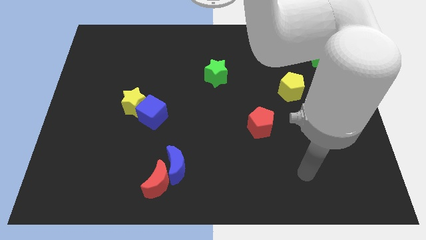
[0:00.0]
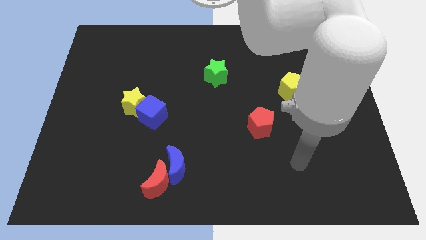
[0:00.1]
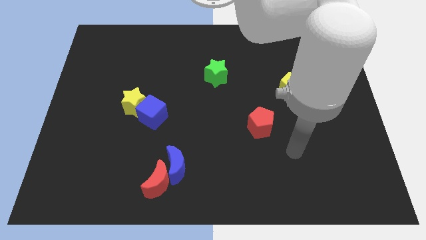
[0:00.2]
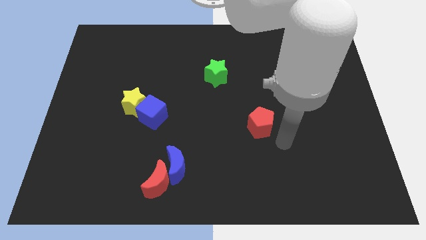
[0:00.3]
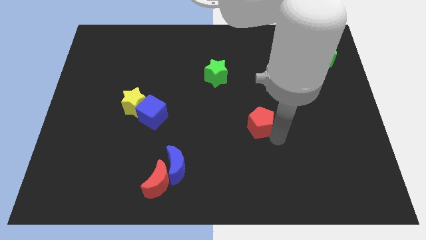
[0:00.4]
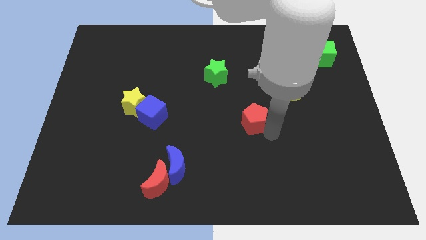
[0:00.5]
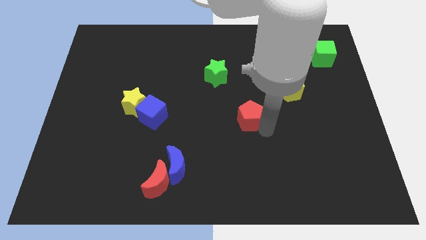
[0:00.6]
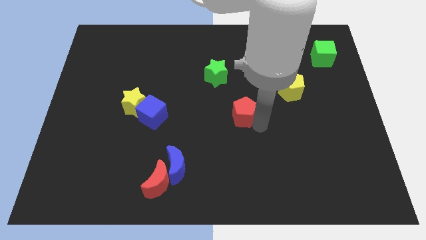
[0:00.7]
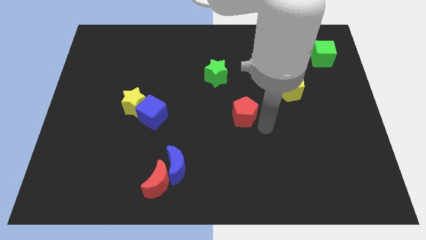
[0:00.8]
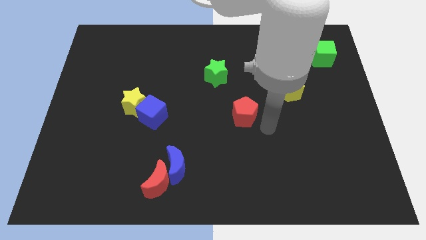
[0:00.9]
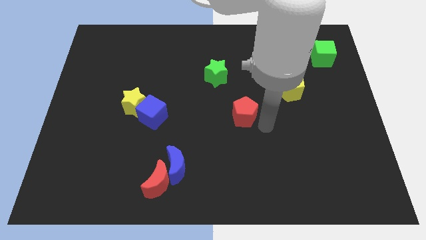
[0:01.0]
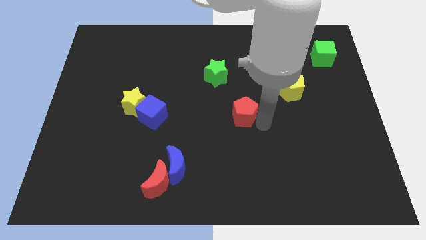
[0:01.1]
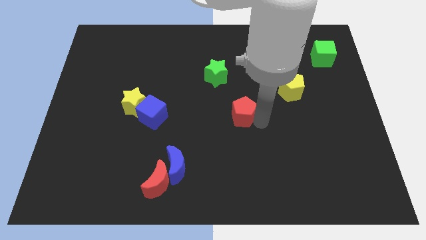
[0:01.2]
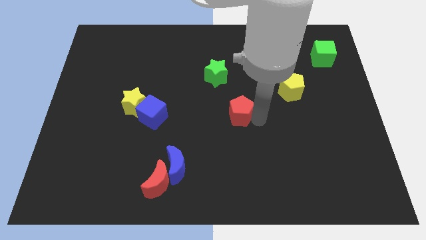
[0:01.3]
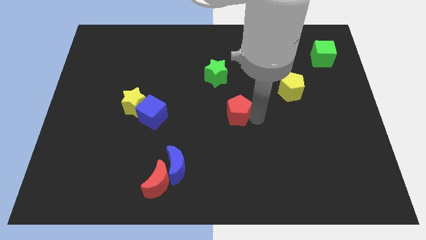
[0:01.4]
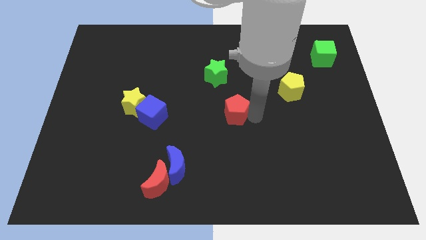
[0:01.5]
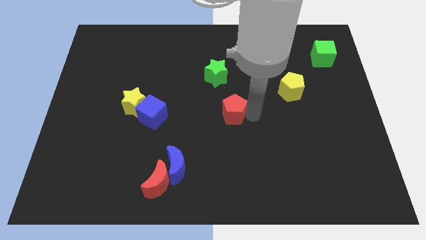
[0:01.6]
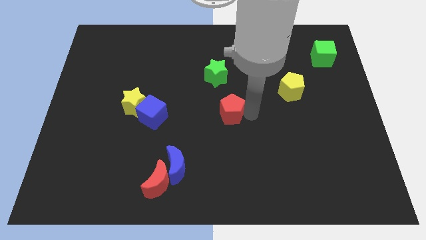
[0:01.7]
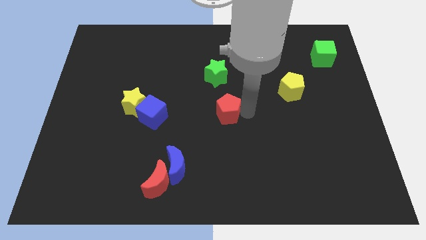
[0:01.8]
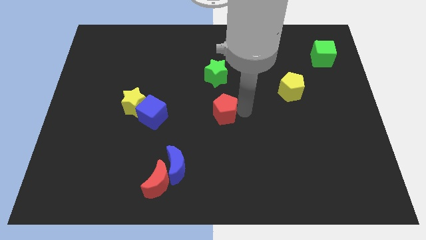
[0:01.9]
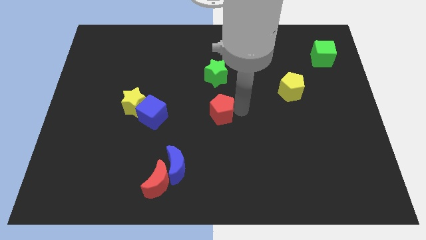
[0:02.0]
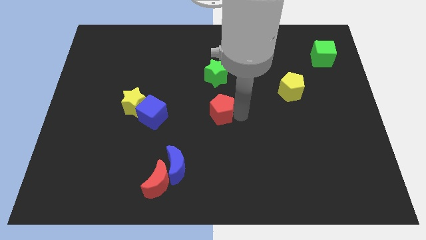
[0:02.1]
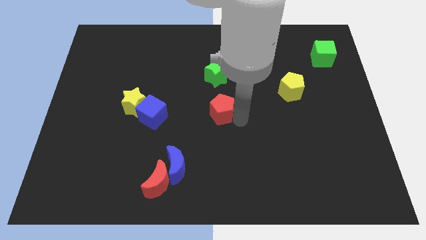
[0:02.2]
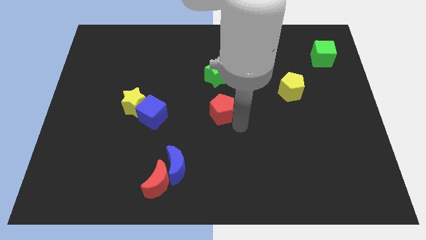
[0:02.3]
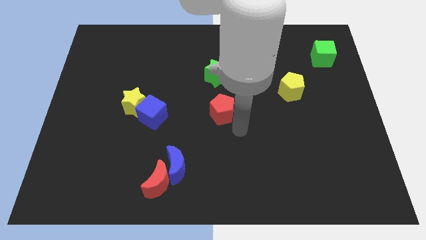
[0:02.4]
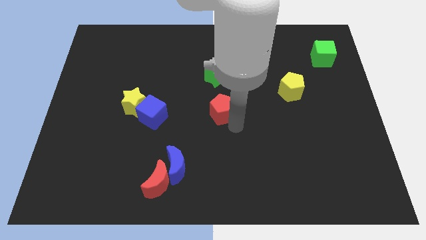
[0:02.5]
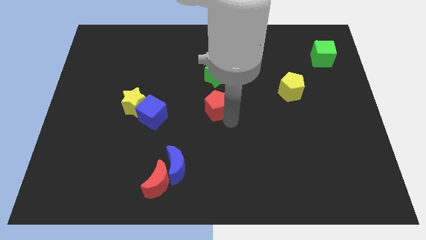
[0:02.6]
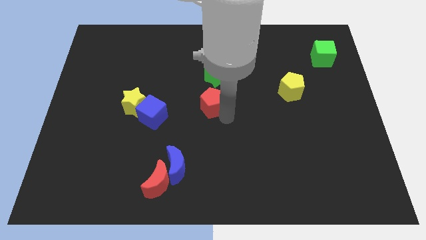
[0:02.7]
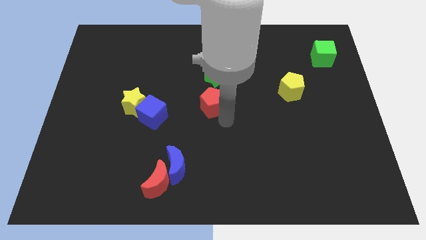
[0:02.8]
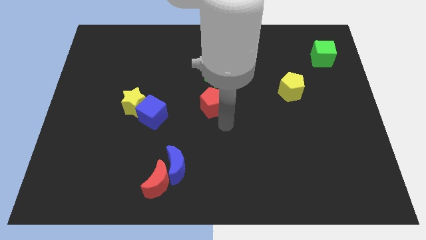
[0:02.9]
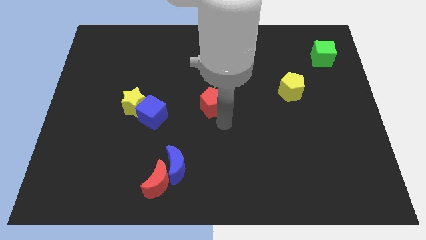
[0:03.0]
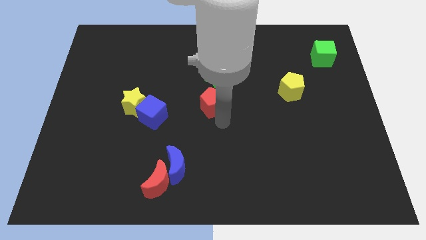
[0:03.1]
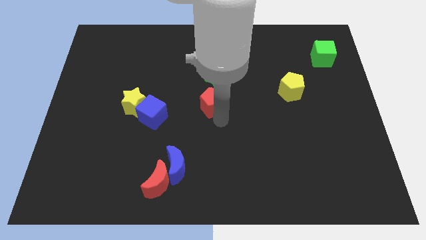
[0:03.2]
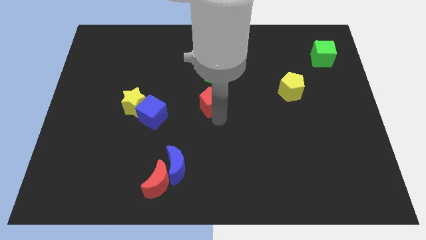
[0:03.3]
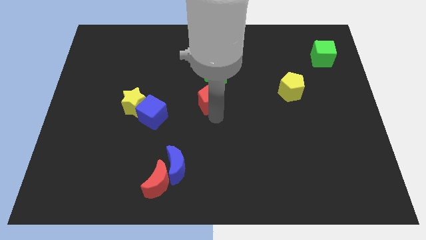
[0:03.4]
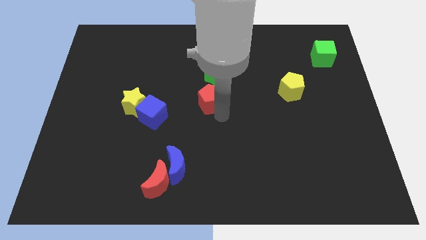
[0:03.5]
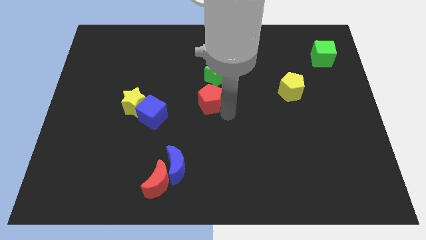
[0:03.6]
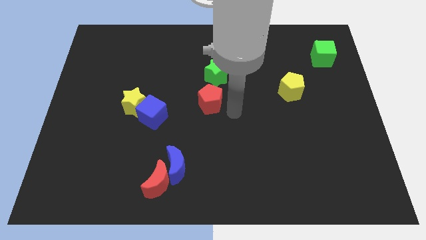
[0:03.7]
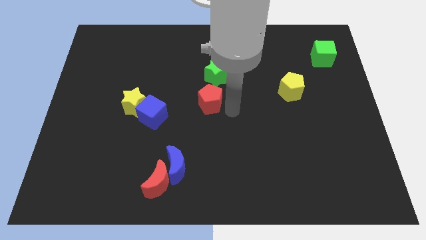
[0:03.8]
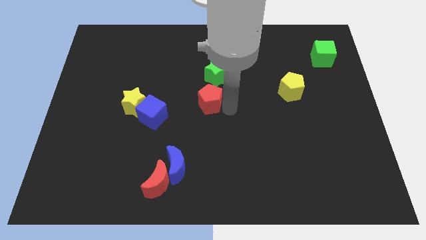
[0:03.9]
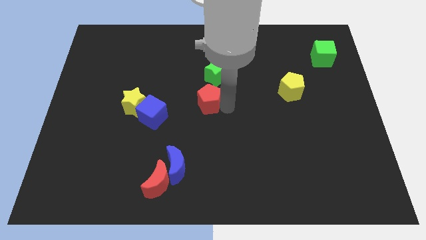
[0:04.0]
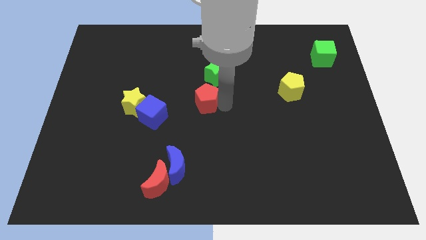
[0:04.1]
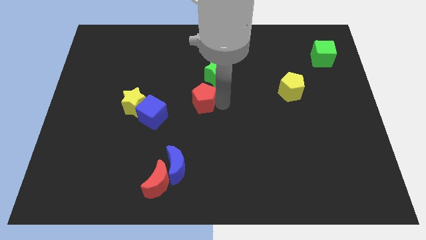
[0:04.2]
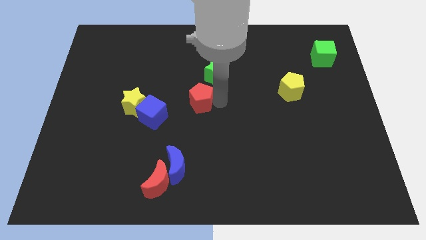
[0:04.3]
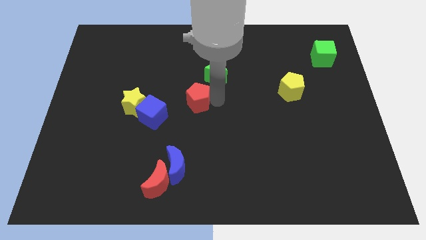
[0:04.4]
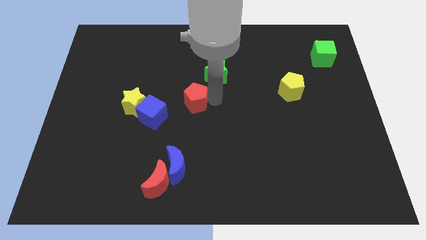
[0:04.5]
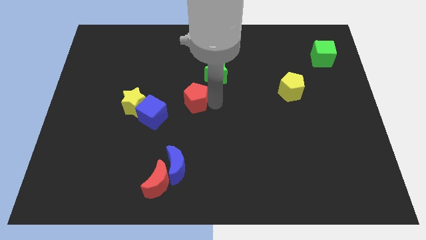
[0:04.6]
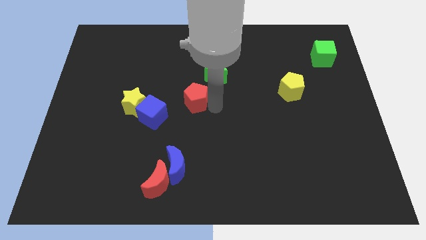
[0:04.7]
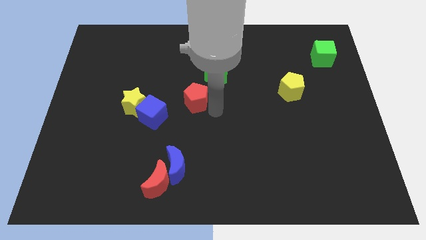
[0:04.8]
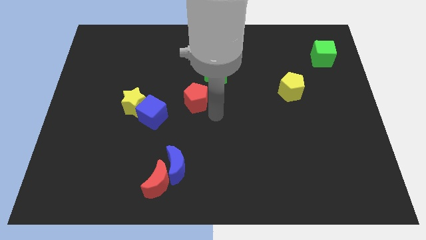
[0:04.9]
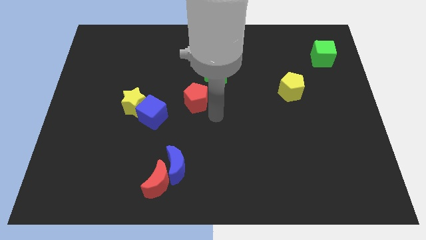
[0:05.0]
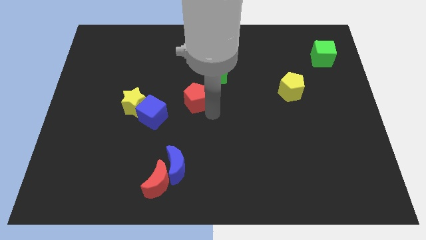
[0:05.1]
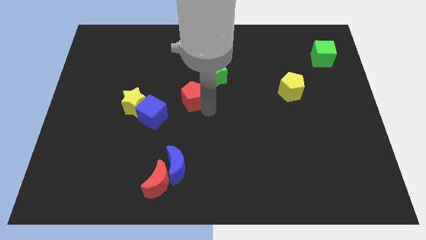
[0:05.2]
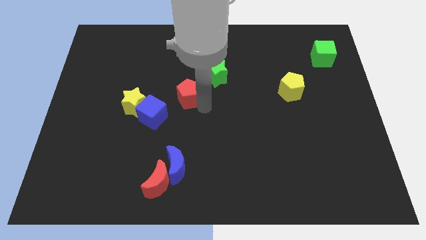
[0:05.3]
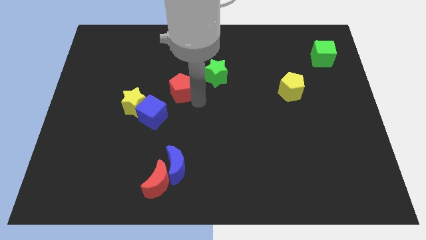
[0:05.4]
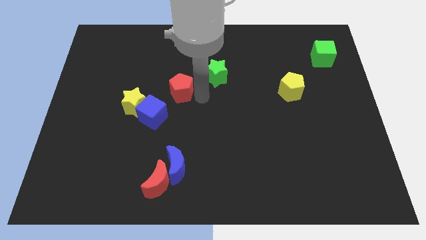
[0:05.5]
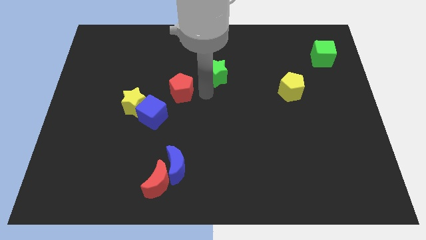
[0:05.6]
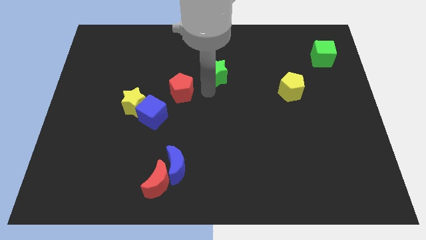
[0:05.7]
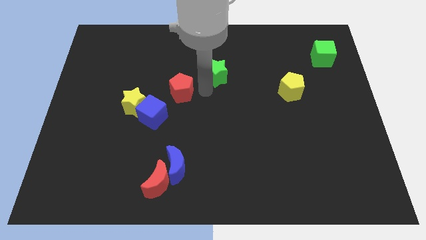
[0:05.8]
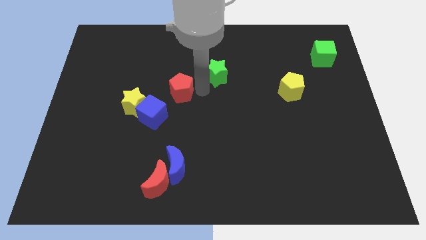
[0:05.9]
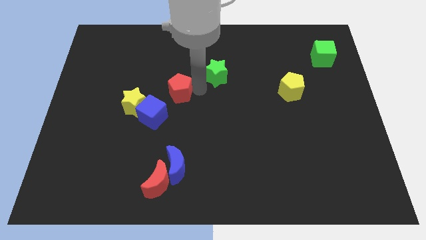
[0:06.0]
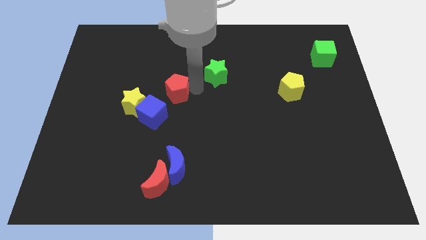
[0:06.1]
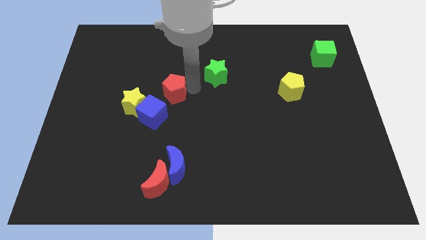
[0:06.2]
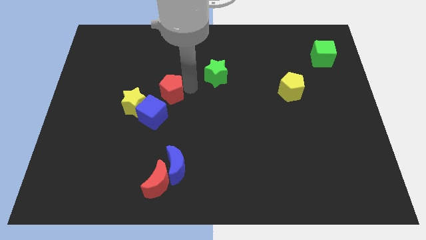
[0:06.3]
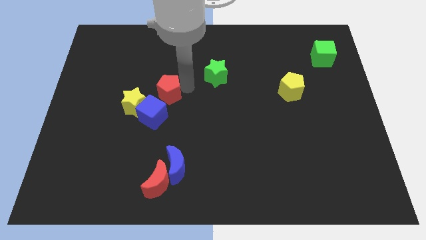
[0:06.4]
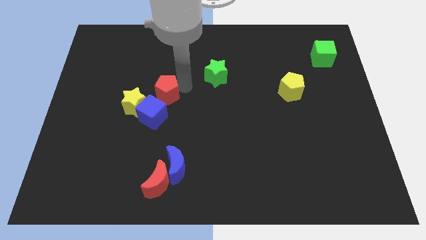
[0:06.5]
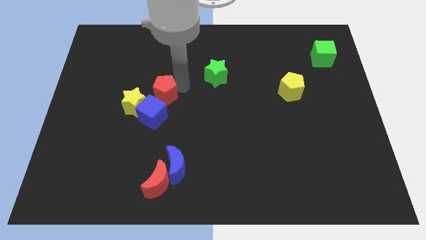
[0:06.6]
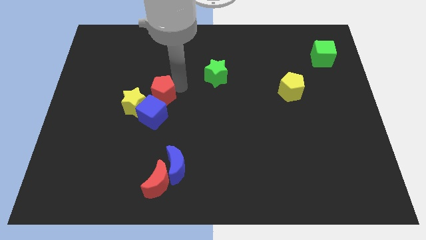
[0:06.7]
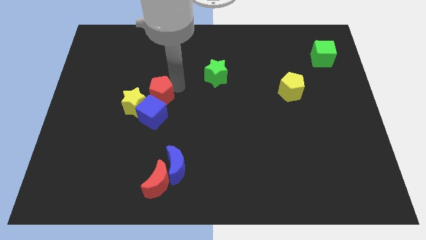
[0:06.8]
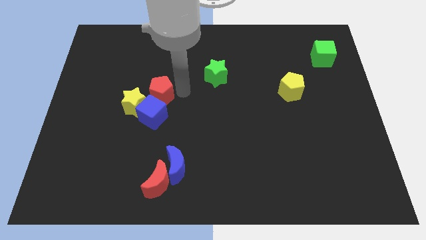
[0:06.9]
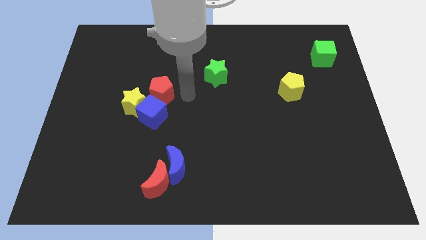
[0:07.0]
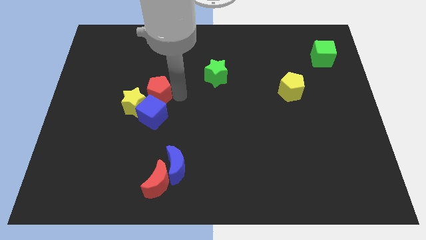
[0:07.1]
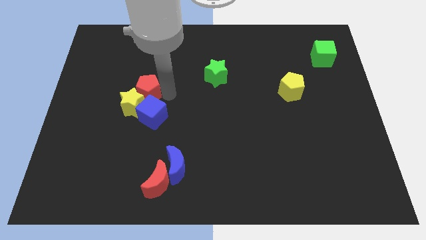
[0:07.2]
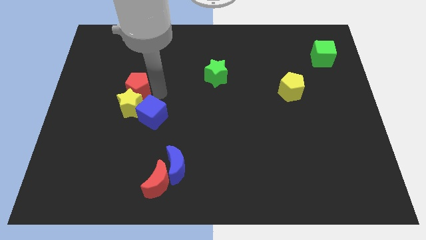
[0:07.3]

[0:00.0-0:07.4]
move the red pentagon to the top left of the yellow star
